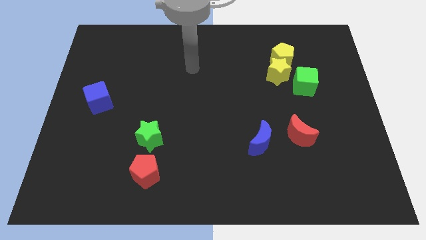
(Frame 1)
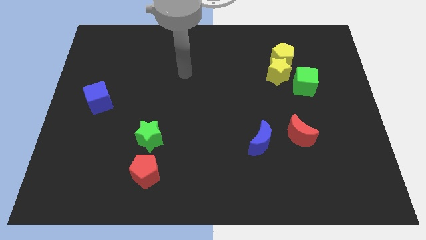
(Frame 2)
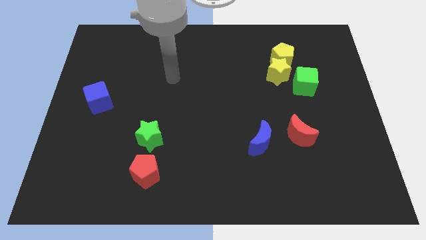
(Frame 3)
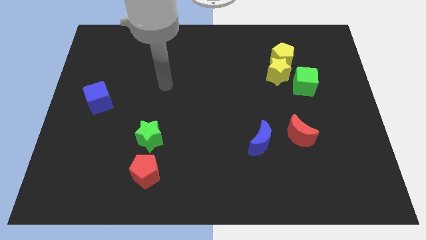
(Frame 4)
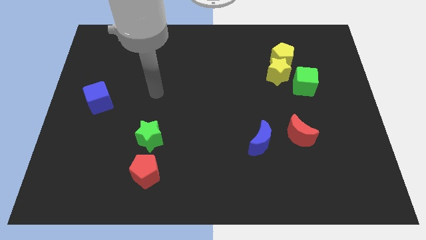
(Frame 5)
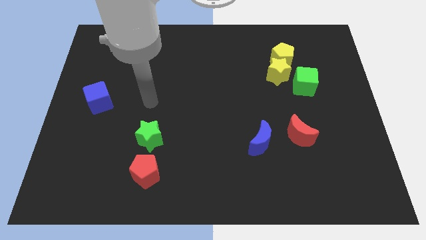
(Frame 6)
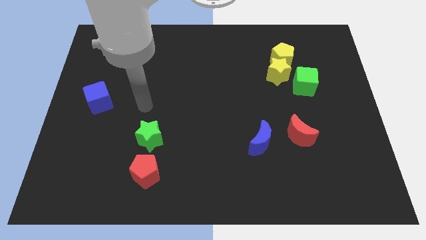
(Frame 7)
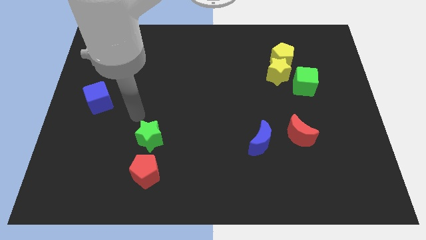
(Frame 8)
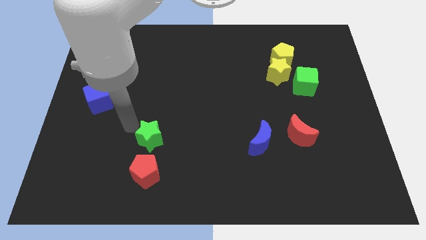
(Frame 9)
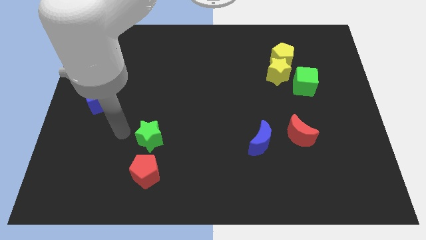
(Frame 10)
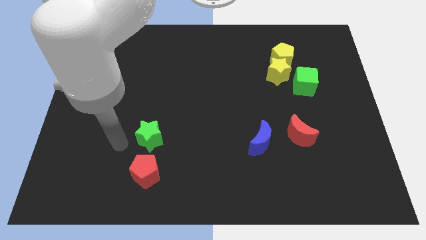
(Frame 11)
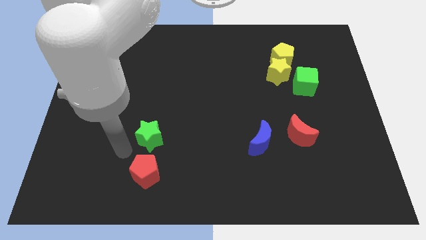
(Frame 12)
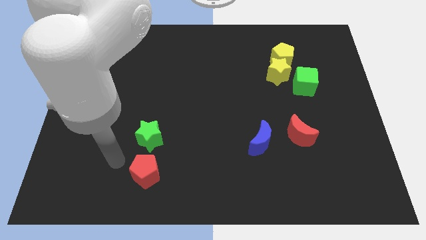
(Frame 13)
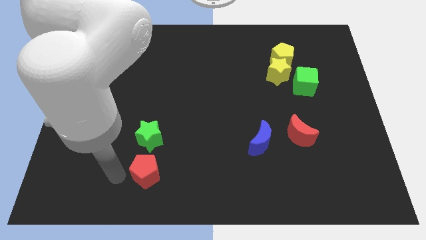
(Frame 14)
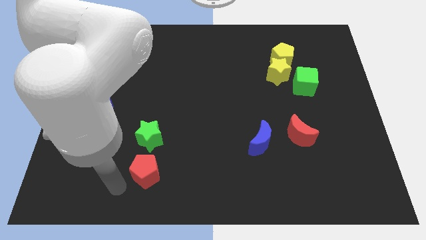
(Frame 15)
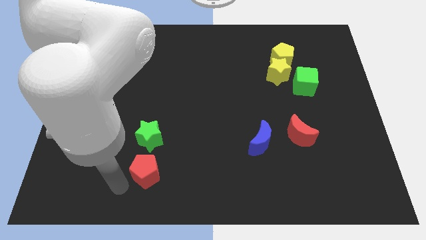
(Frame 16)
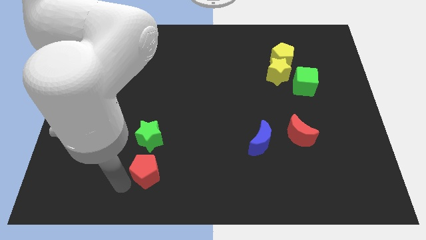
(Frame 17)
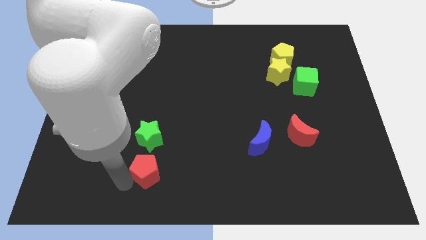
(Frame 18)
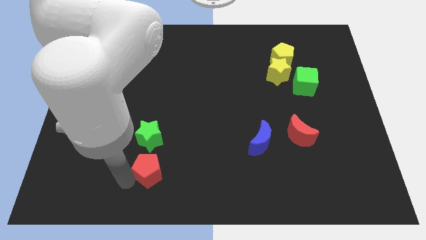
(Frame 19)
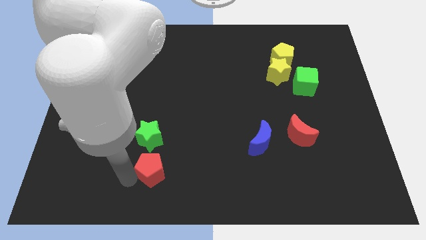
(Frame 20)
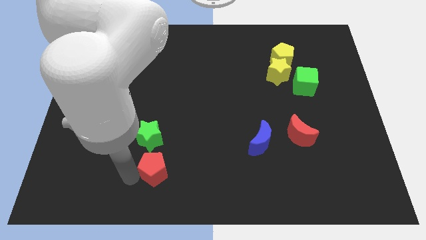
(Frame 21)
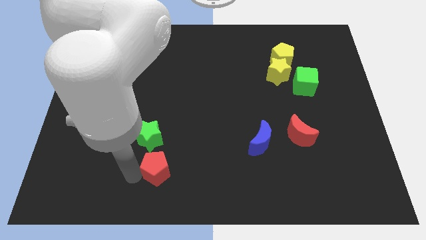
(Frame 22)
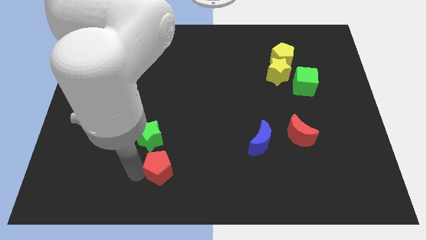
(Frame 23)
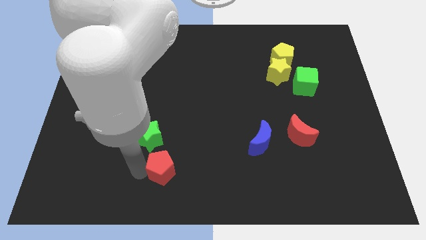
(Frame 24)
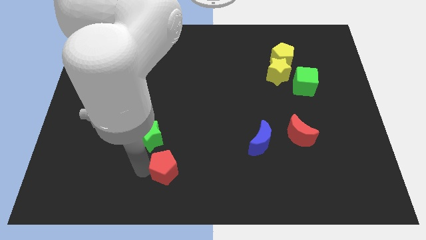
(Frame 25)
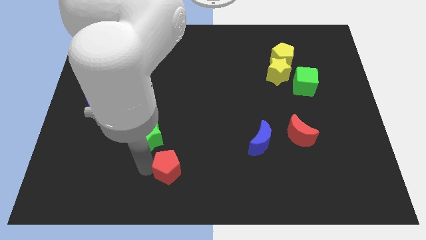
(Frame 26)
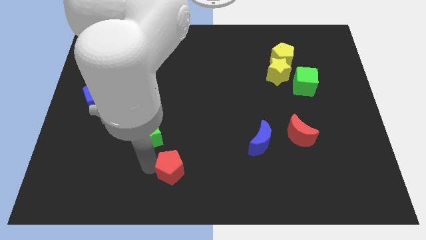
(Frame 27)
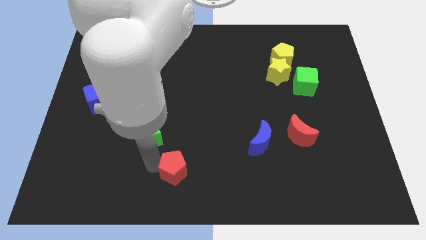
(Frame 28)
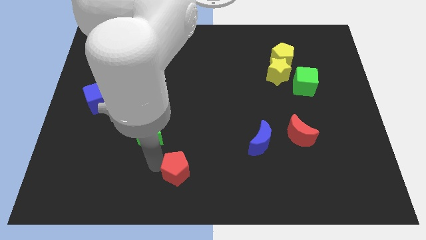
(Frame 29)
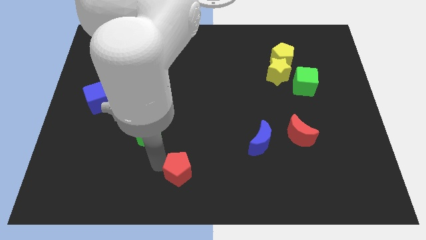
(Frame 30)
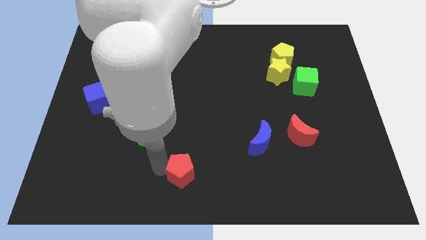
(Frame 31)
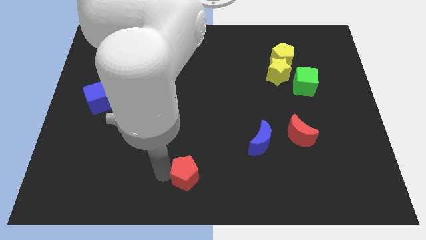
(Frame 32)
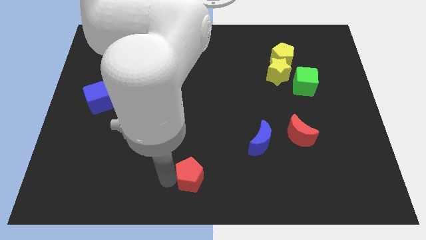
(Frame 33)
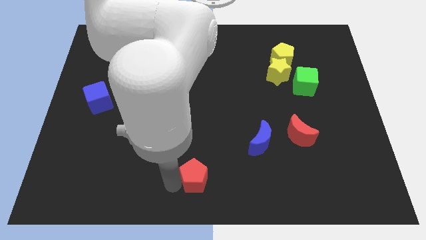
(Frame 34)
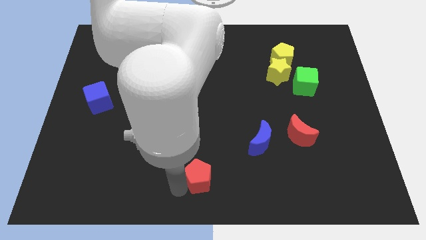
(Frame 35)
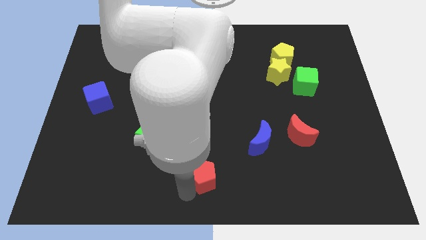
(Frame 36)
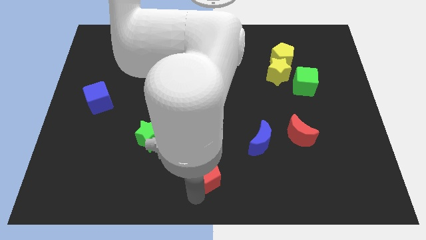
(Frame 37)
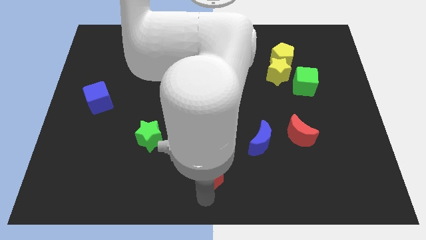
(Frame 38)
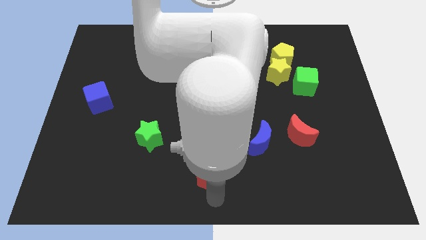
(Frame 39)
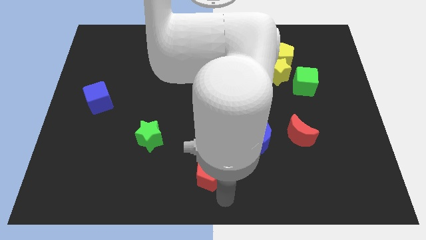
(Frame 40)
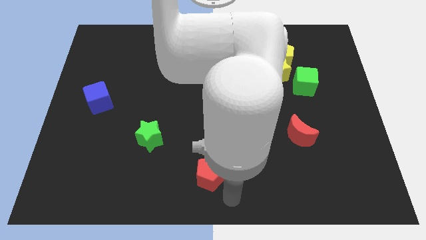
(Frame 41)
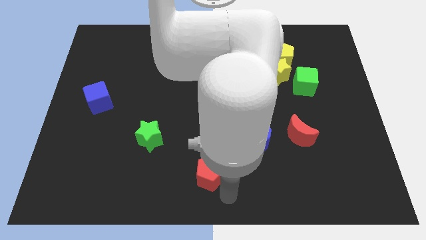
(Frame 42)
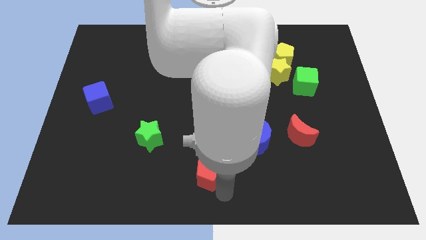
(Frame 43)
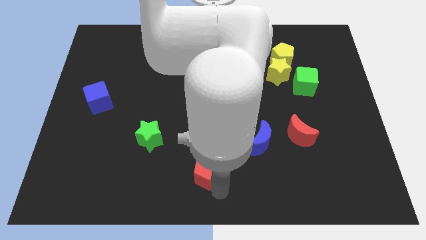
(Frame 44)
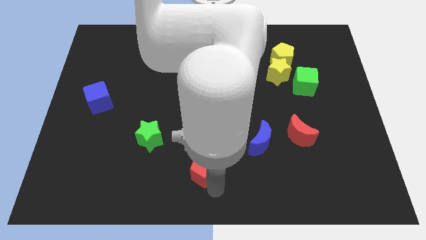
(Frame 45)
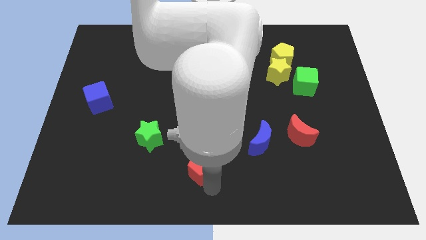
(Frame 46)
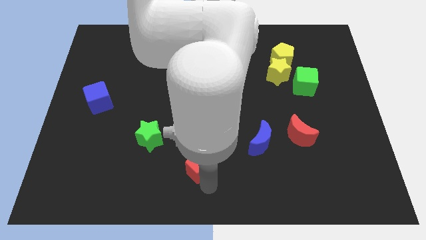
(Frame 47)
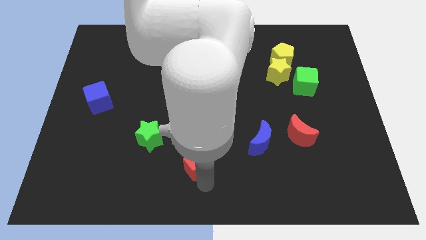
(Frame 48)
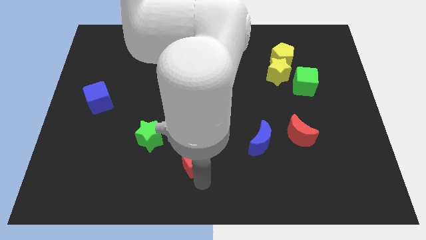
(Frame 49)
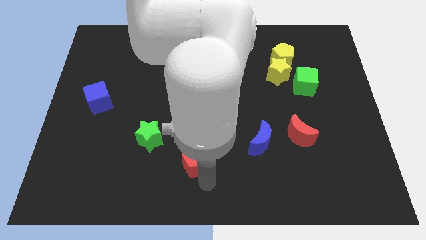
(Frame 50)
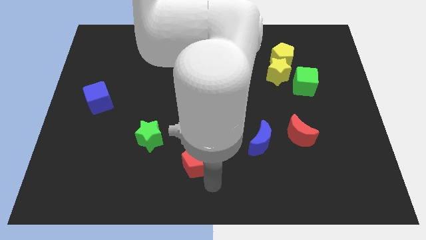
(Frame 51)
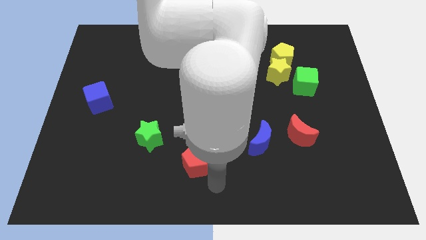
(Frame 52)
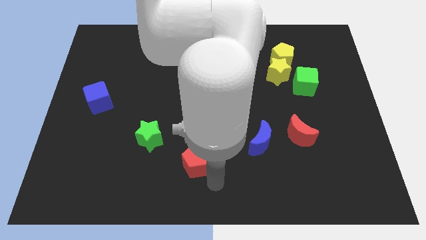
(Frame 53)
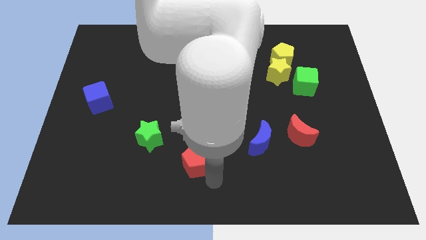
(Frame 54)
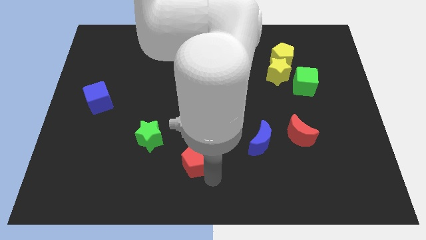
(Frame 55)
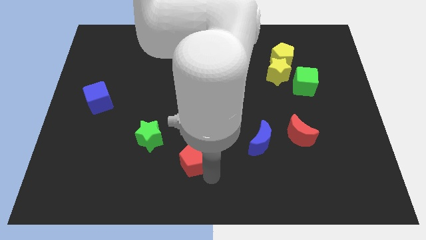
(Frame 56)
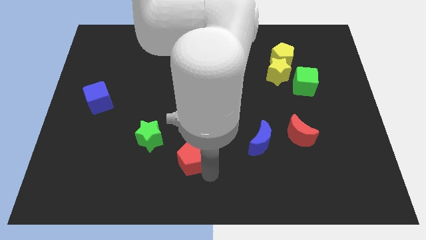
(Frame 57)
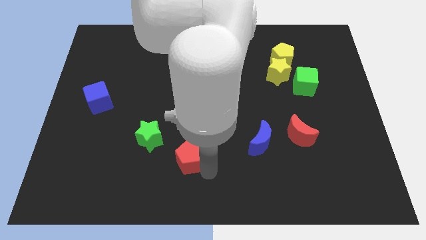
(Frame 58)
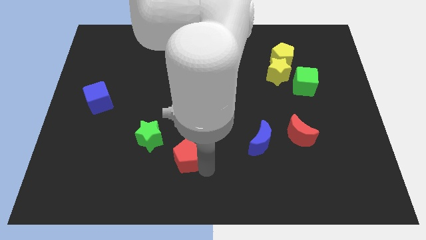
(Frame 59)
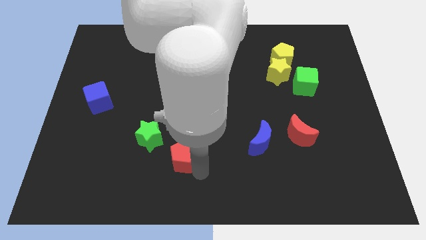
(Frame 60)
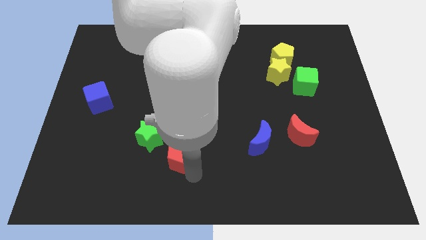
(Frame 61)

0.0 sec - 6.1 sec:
put the red pentagon right of the green star

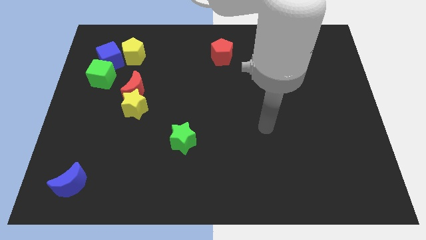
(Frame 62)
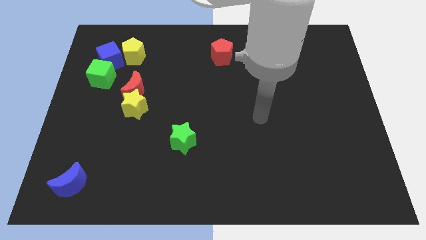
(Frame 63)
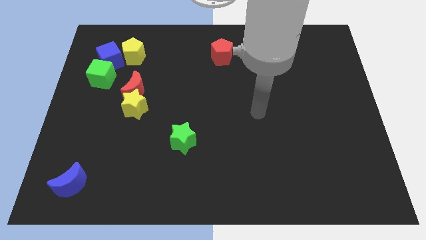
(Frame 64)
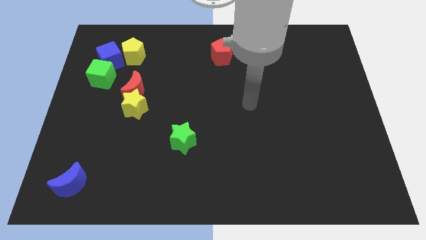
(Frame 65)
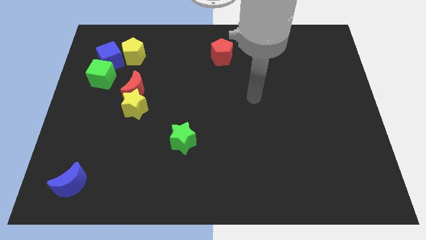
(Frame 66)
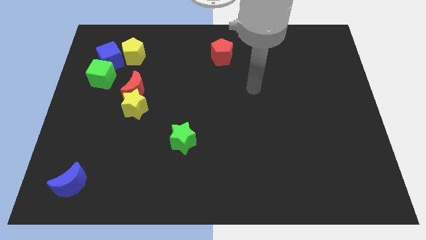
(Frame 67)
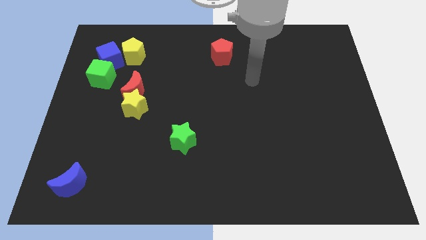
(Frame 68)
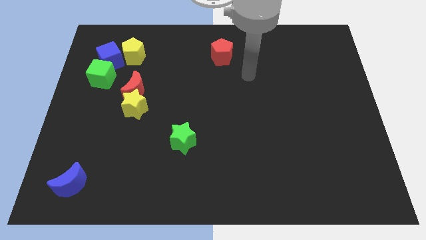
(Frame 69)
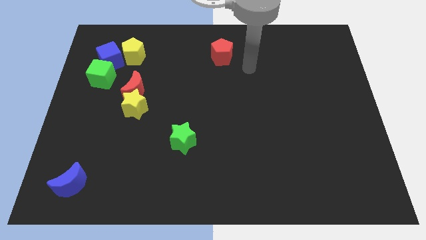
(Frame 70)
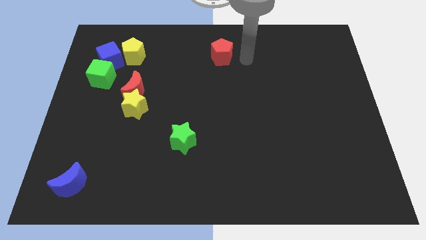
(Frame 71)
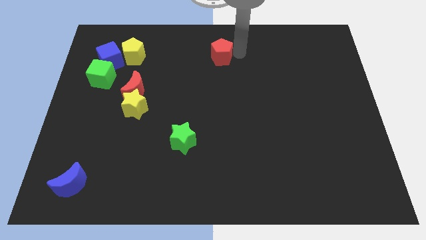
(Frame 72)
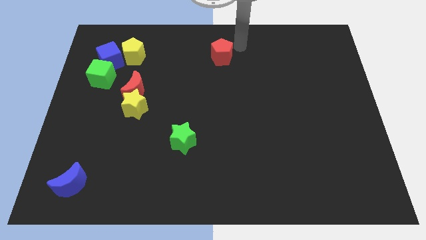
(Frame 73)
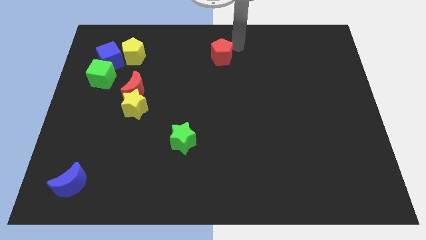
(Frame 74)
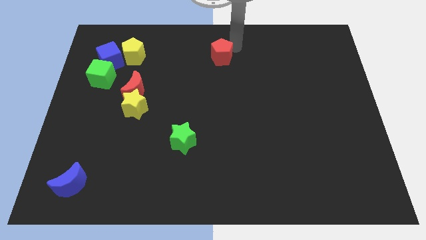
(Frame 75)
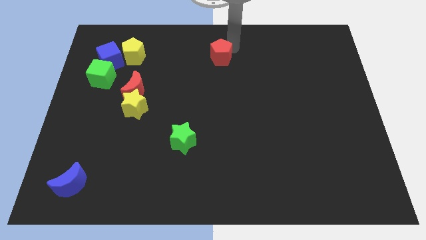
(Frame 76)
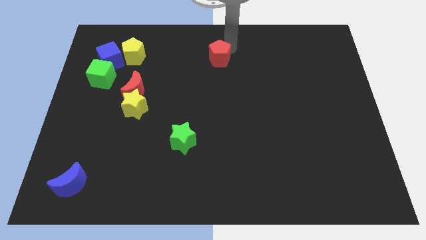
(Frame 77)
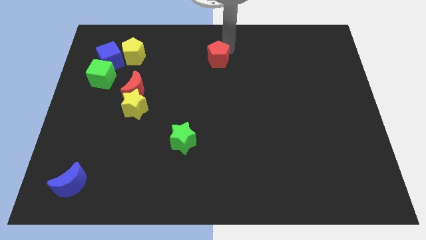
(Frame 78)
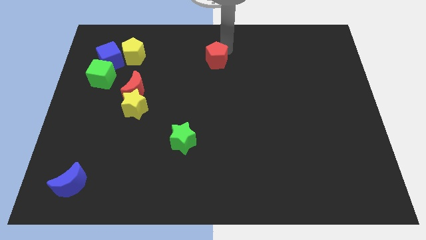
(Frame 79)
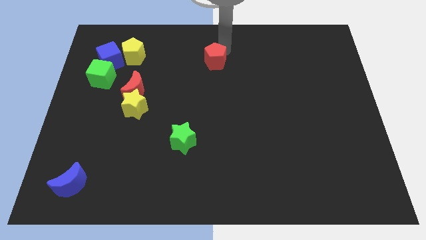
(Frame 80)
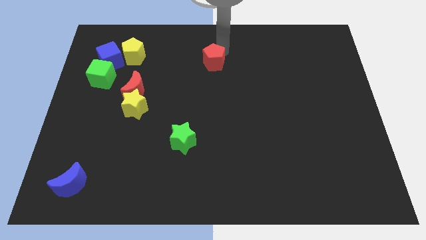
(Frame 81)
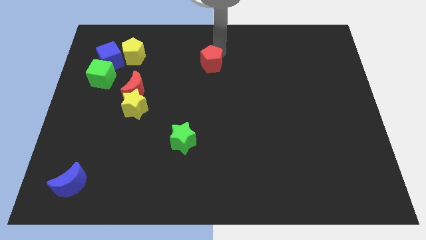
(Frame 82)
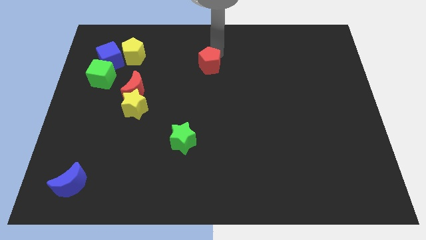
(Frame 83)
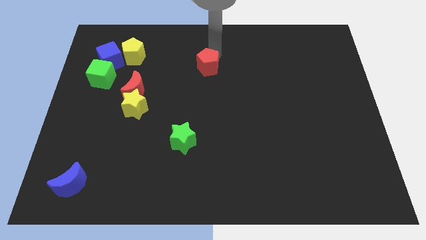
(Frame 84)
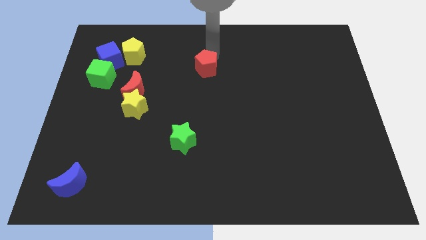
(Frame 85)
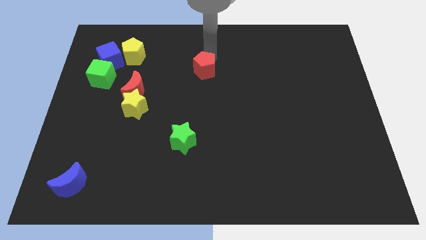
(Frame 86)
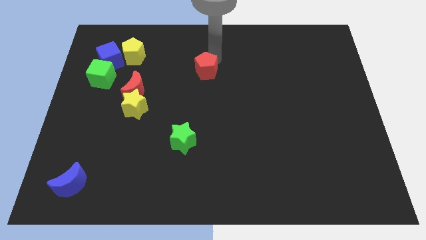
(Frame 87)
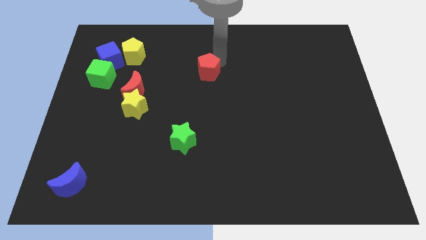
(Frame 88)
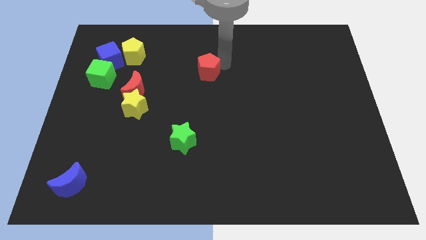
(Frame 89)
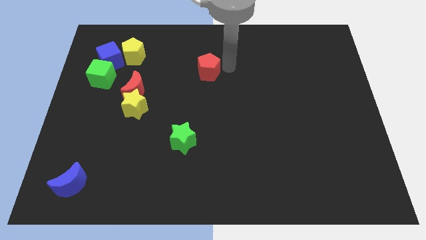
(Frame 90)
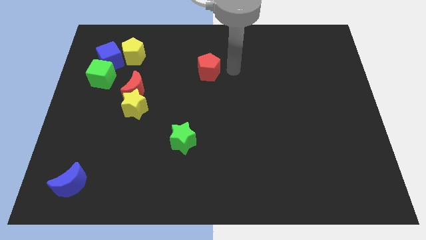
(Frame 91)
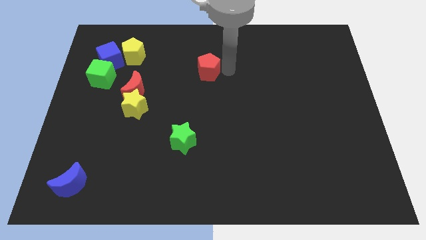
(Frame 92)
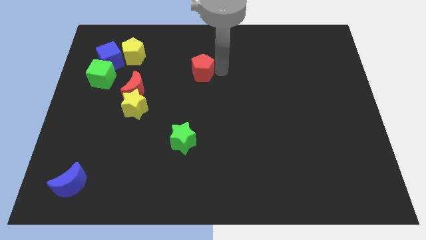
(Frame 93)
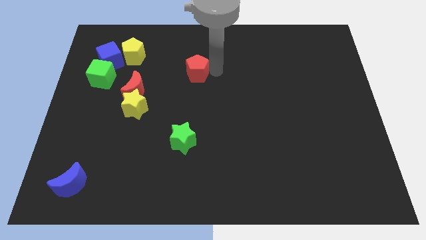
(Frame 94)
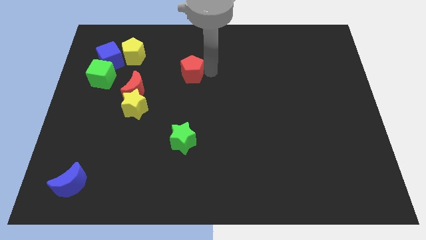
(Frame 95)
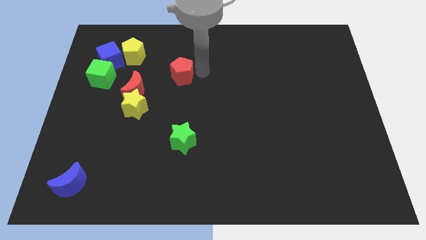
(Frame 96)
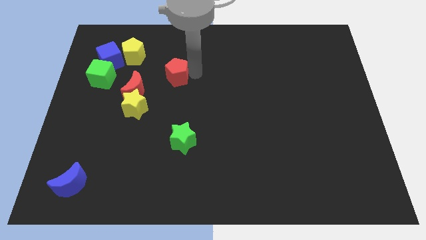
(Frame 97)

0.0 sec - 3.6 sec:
put the red pentagon to the top right of the red moon
